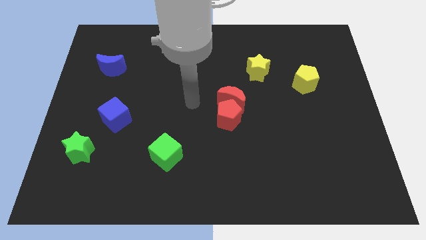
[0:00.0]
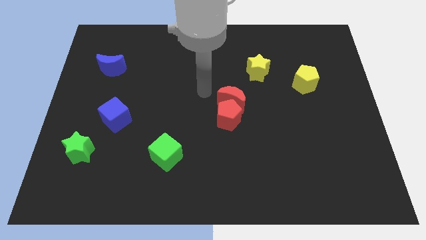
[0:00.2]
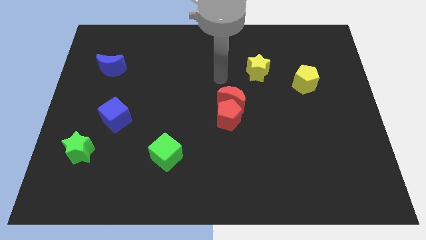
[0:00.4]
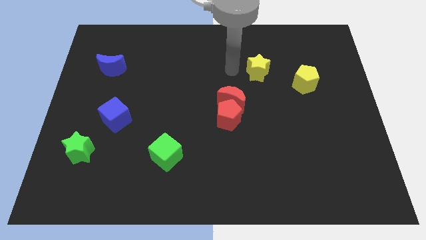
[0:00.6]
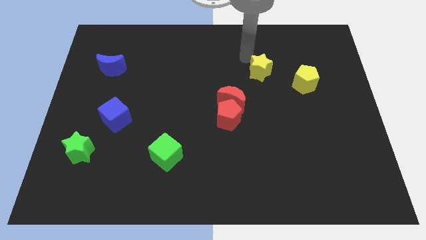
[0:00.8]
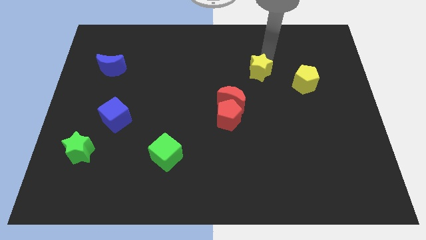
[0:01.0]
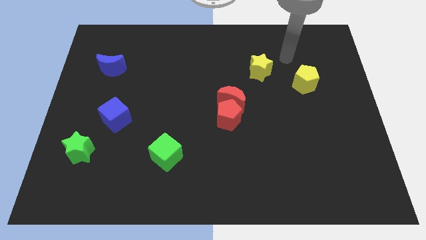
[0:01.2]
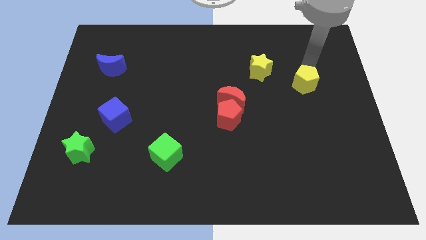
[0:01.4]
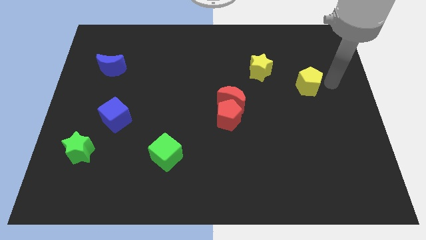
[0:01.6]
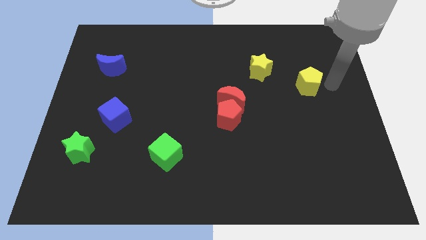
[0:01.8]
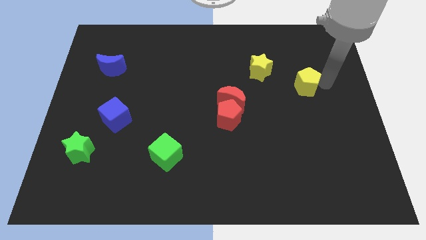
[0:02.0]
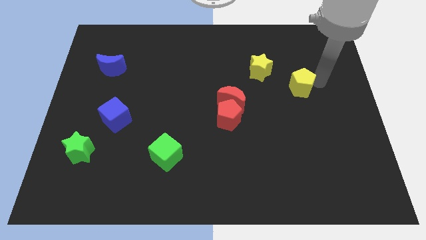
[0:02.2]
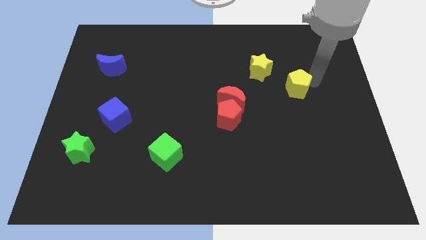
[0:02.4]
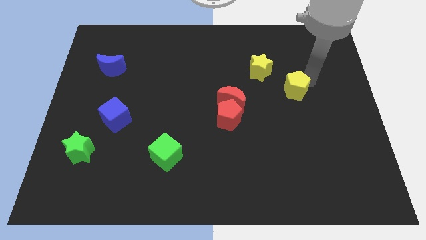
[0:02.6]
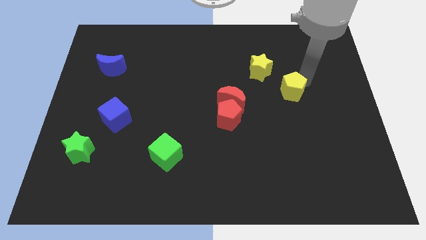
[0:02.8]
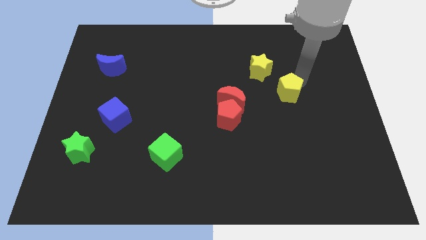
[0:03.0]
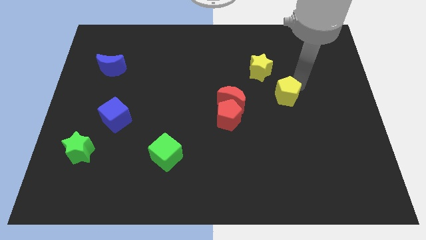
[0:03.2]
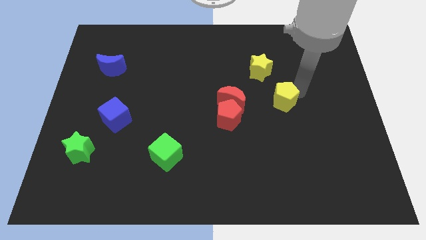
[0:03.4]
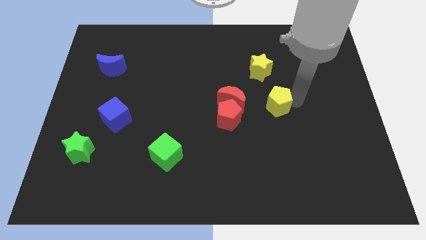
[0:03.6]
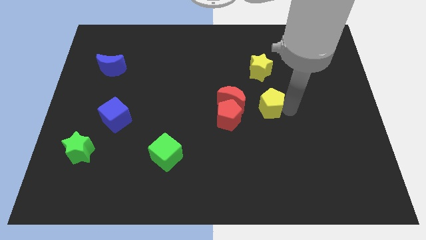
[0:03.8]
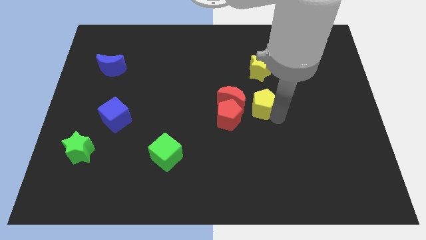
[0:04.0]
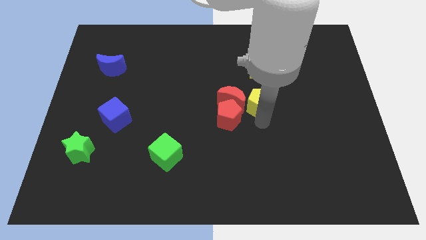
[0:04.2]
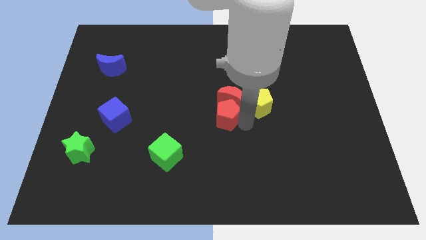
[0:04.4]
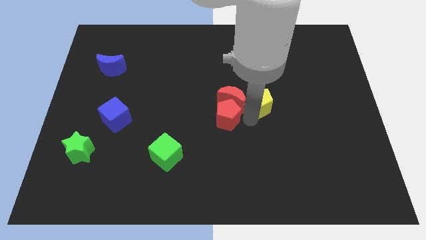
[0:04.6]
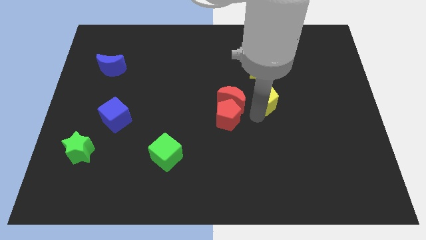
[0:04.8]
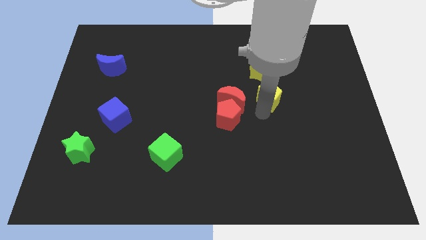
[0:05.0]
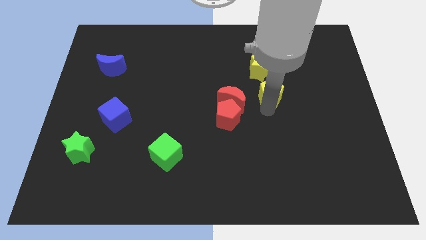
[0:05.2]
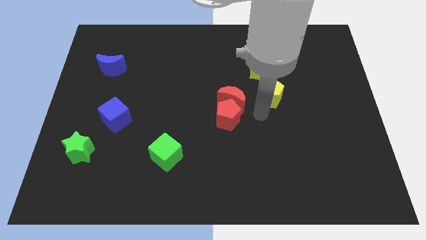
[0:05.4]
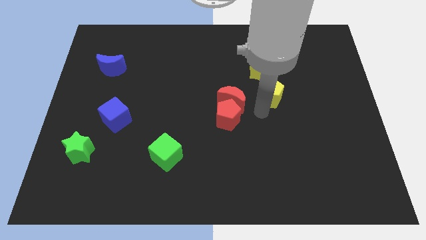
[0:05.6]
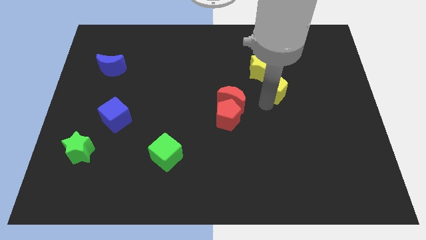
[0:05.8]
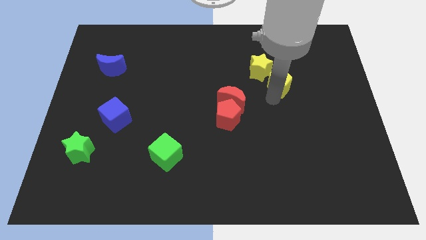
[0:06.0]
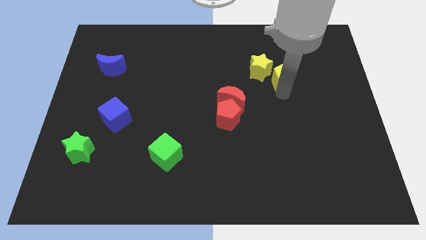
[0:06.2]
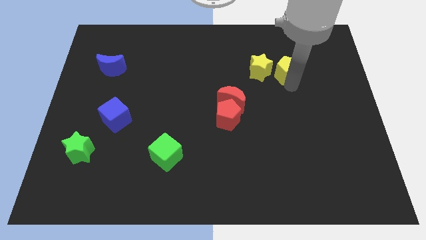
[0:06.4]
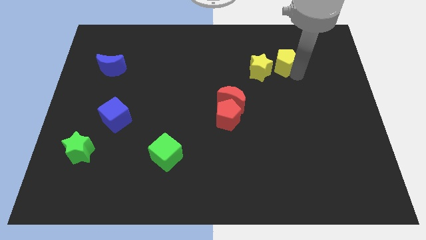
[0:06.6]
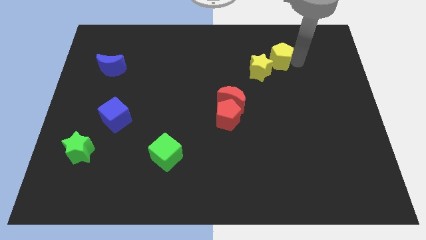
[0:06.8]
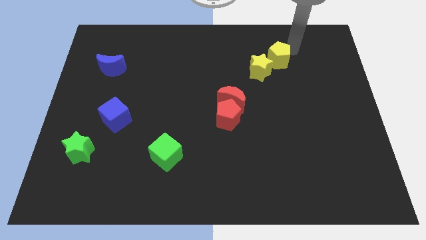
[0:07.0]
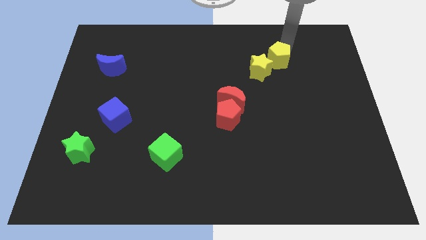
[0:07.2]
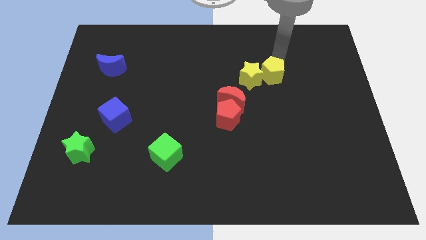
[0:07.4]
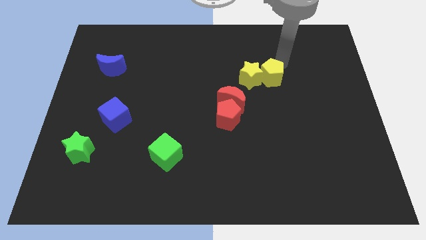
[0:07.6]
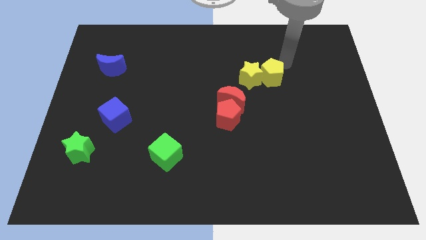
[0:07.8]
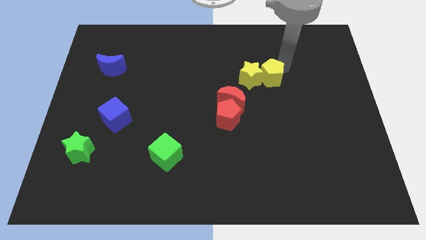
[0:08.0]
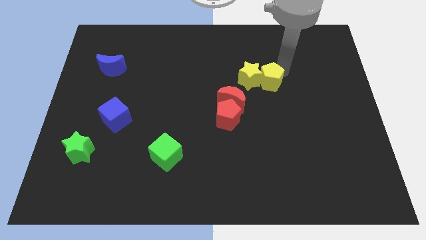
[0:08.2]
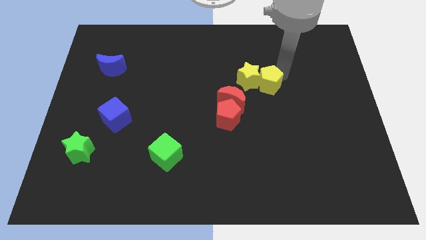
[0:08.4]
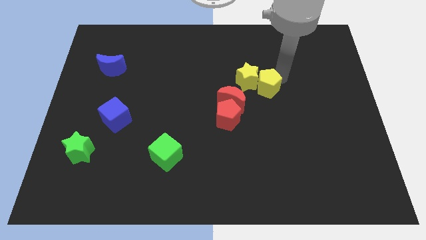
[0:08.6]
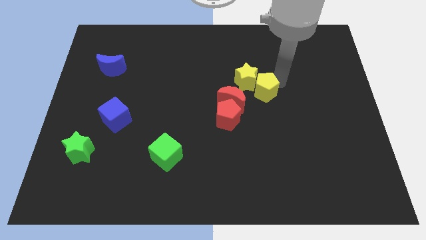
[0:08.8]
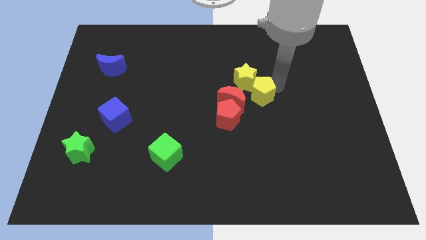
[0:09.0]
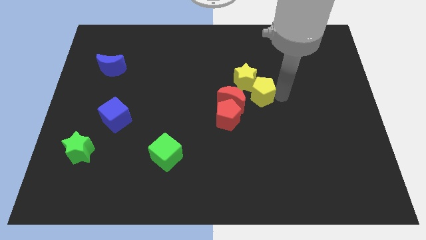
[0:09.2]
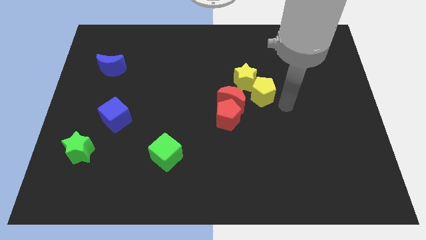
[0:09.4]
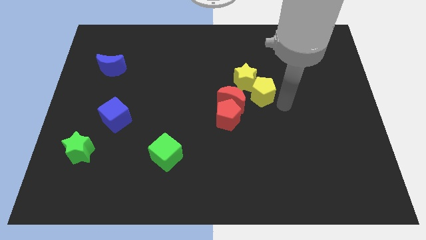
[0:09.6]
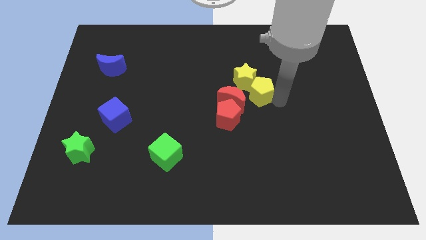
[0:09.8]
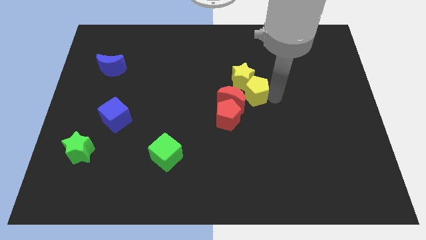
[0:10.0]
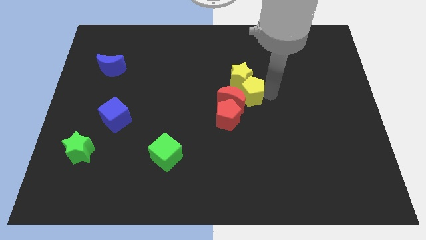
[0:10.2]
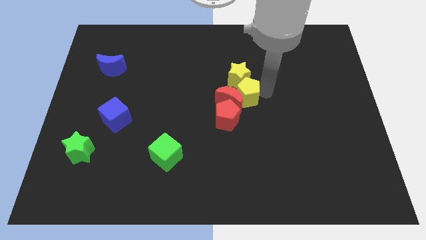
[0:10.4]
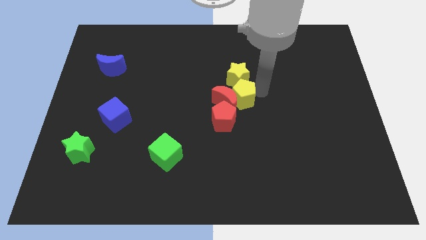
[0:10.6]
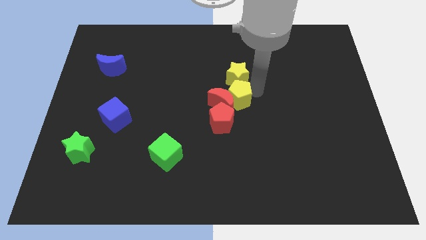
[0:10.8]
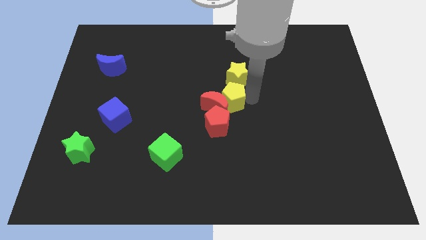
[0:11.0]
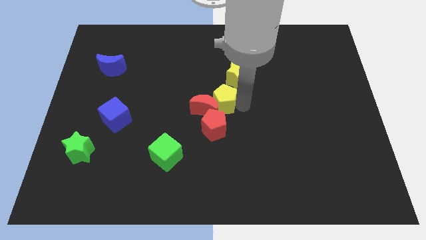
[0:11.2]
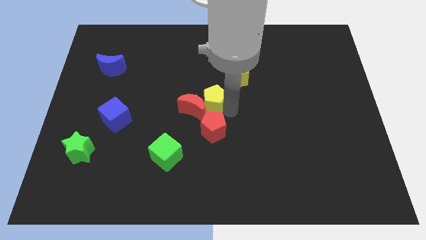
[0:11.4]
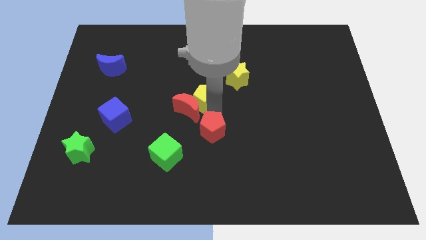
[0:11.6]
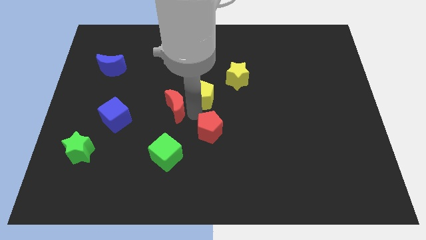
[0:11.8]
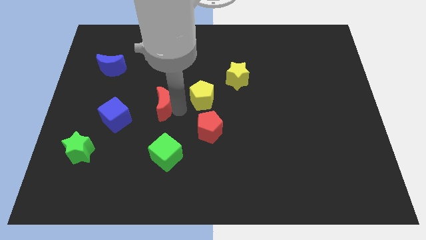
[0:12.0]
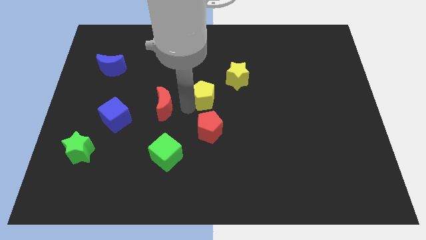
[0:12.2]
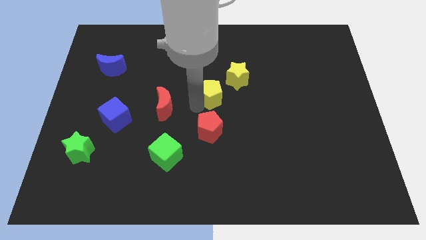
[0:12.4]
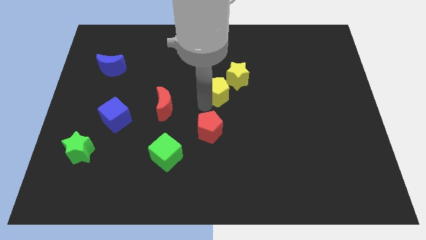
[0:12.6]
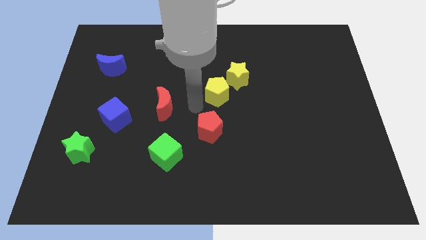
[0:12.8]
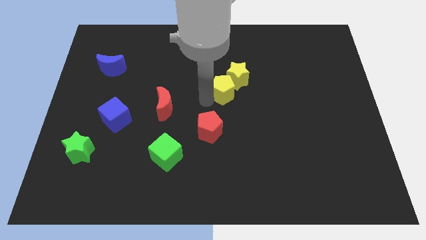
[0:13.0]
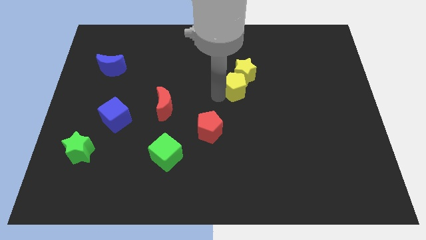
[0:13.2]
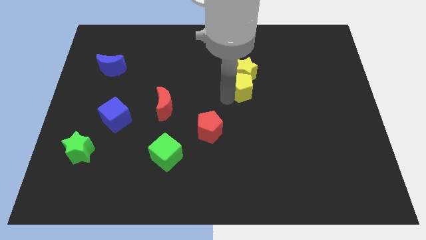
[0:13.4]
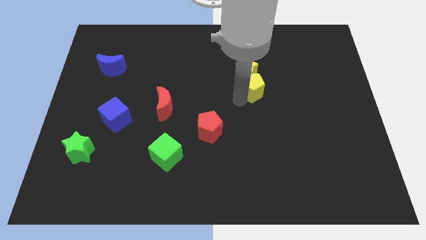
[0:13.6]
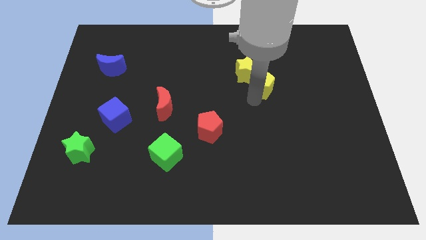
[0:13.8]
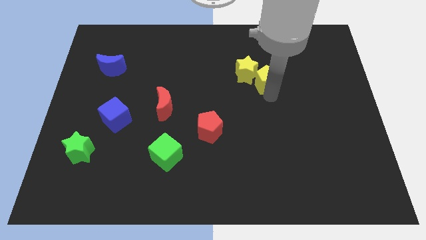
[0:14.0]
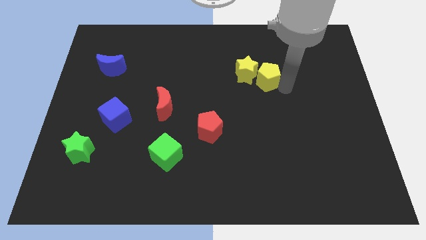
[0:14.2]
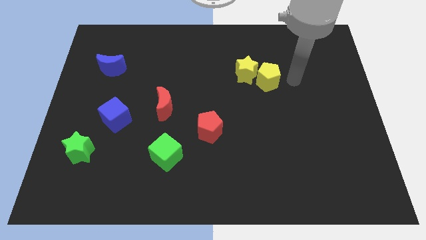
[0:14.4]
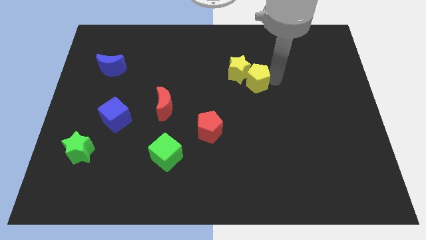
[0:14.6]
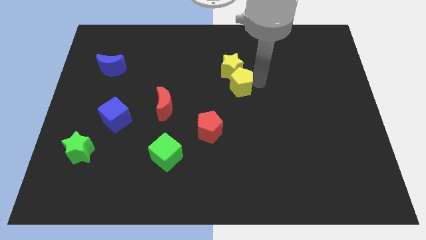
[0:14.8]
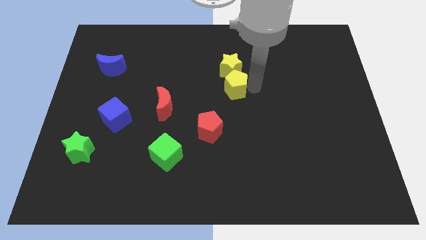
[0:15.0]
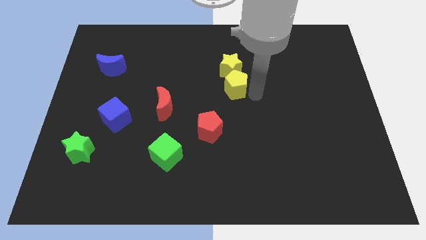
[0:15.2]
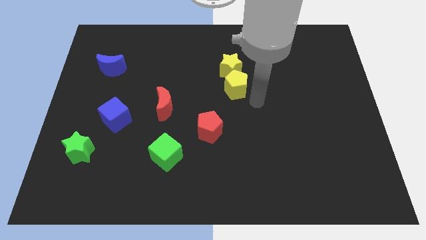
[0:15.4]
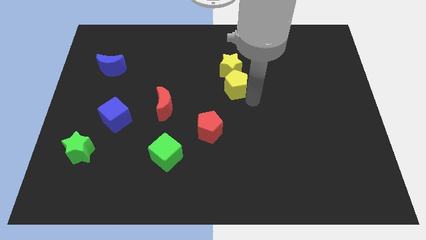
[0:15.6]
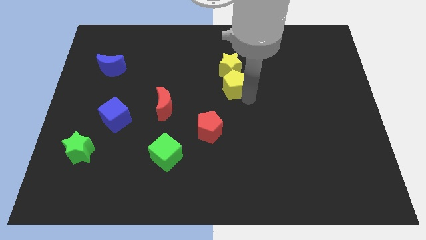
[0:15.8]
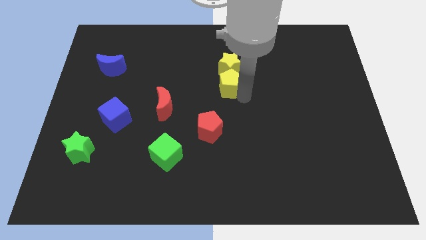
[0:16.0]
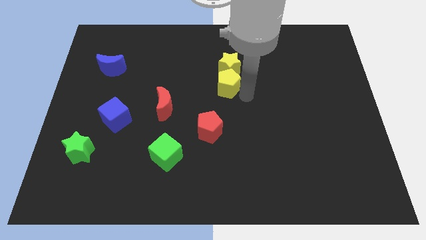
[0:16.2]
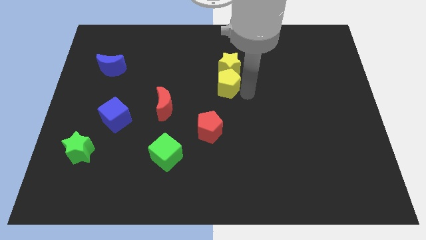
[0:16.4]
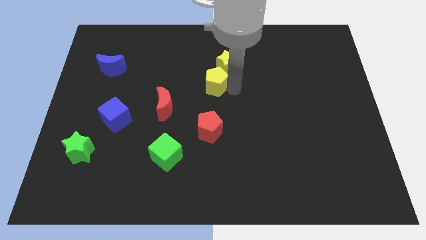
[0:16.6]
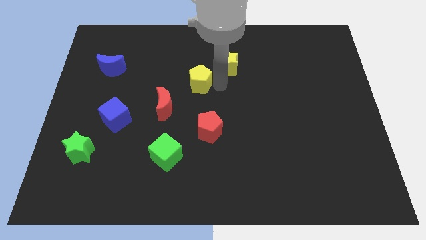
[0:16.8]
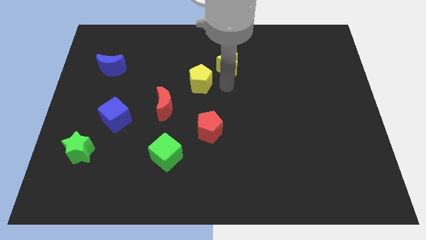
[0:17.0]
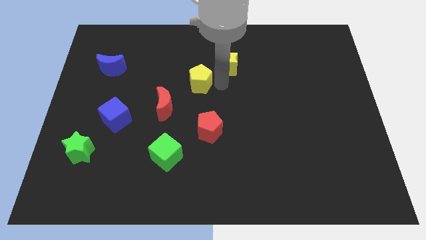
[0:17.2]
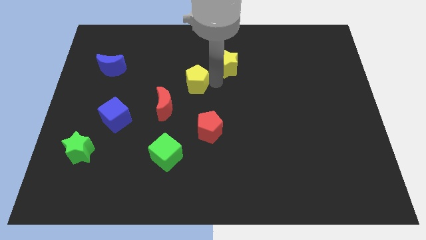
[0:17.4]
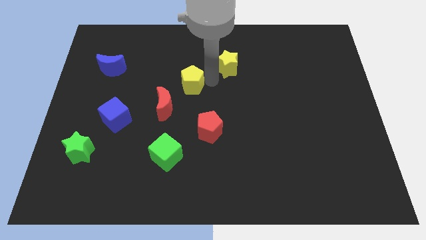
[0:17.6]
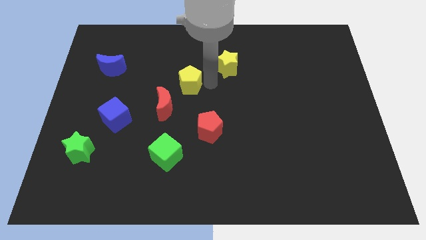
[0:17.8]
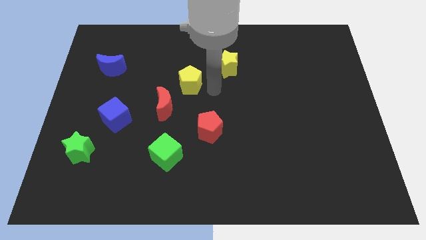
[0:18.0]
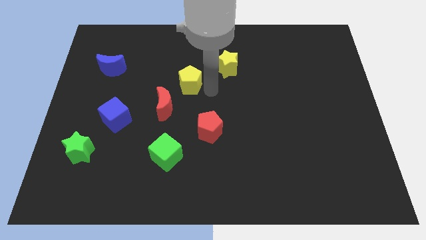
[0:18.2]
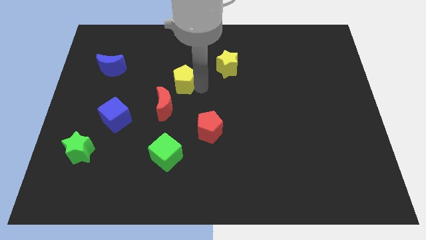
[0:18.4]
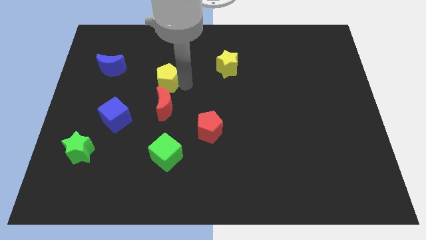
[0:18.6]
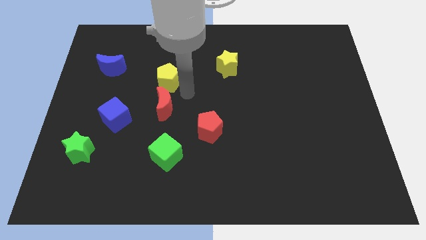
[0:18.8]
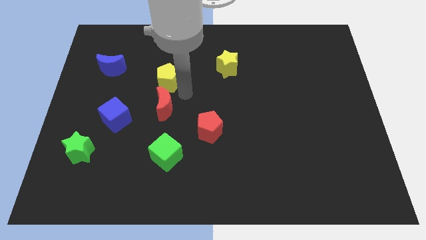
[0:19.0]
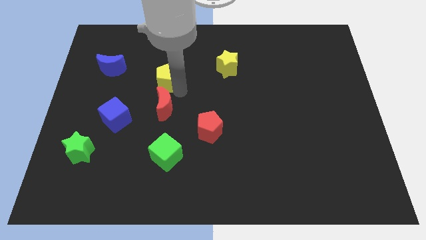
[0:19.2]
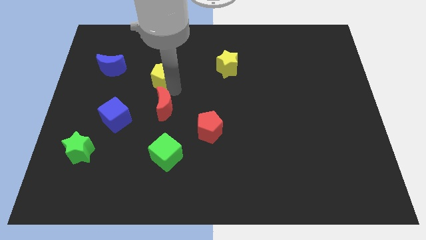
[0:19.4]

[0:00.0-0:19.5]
move the yellow pentagon right of the blue moon
